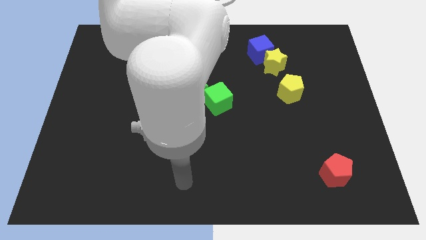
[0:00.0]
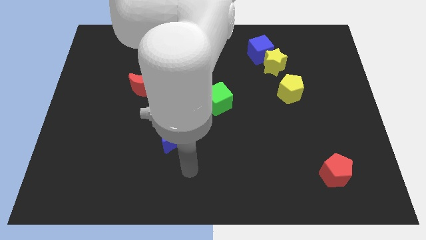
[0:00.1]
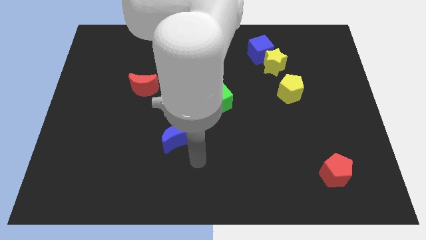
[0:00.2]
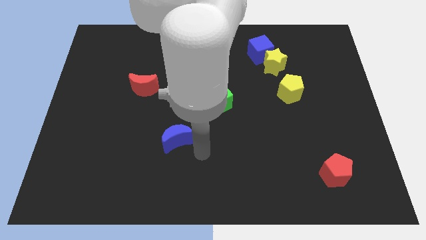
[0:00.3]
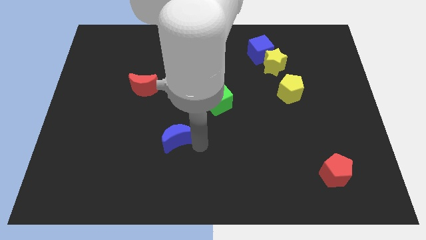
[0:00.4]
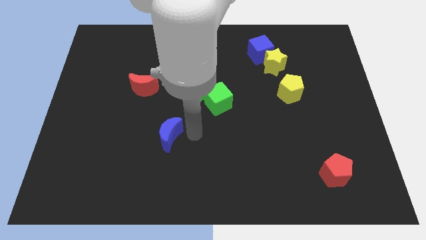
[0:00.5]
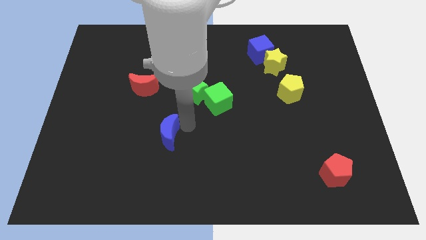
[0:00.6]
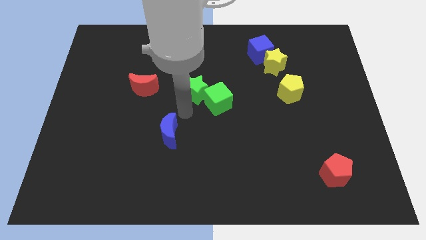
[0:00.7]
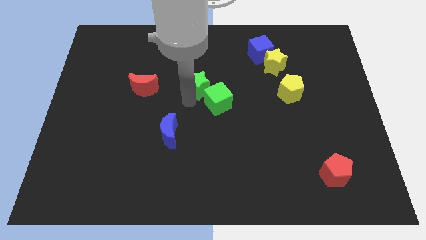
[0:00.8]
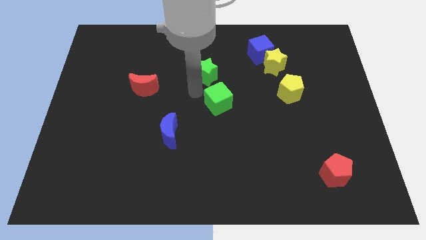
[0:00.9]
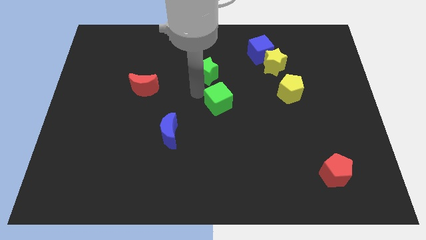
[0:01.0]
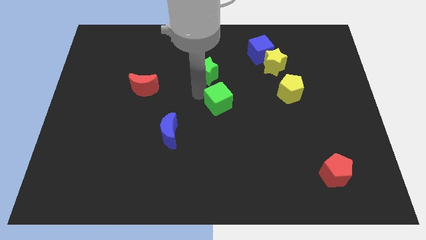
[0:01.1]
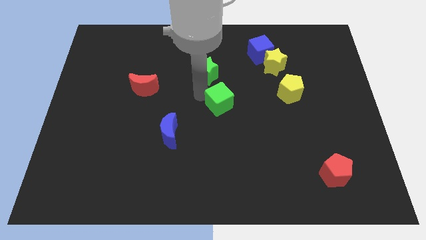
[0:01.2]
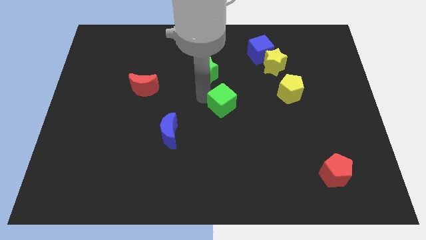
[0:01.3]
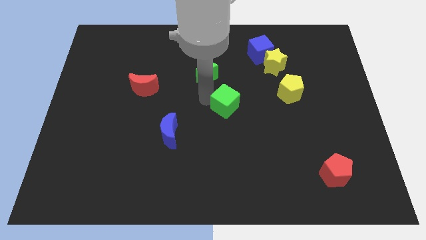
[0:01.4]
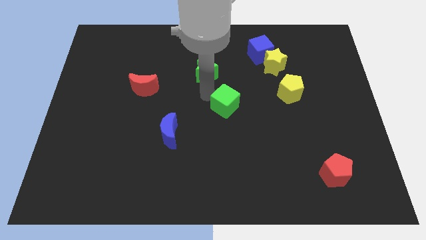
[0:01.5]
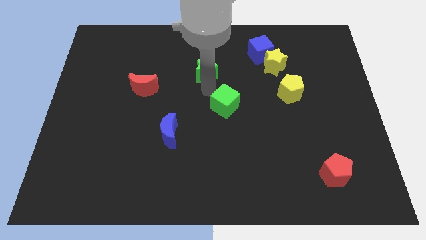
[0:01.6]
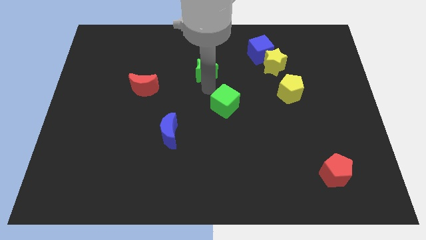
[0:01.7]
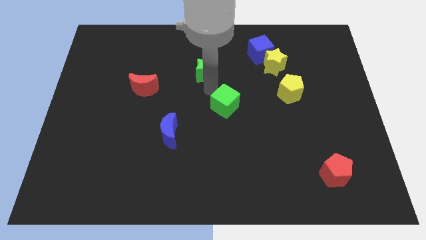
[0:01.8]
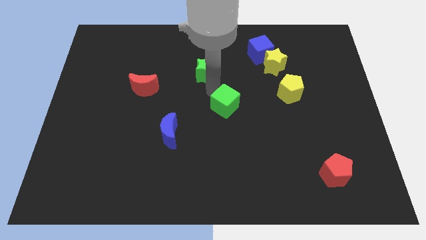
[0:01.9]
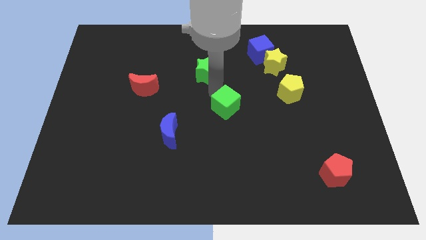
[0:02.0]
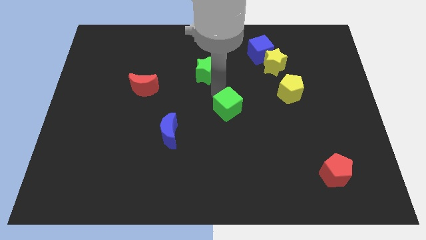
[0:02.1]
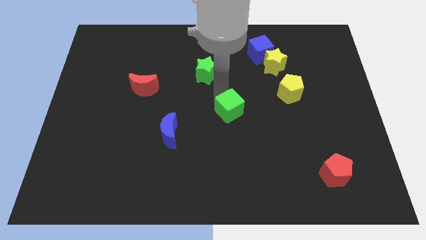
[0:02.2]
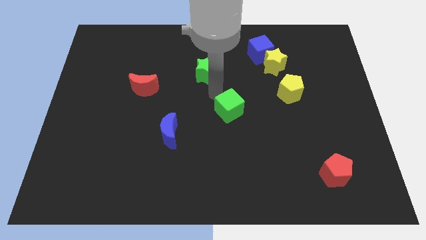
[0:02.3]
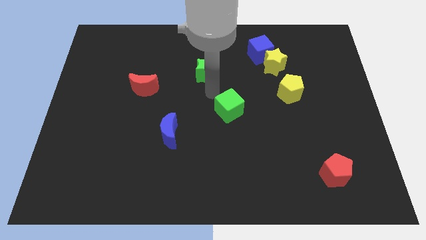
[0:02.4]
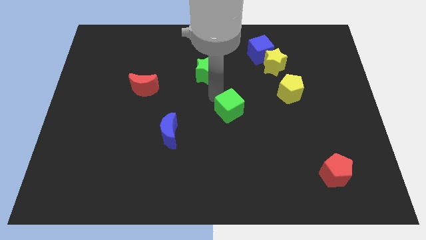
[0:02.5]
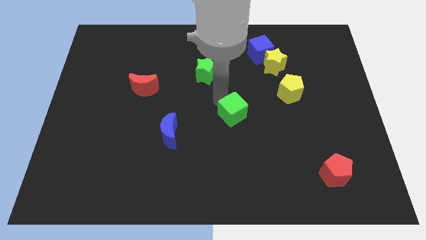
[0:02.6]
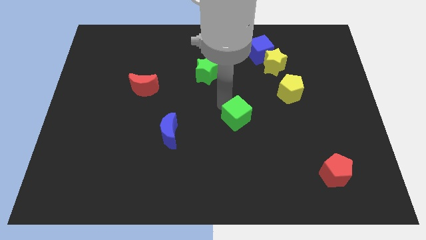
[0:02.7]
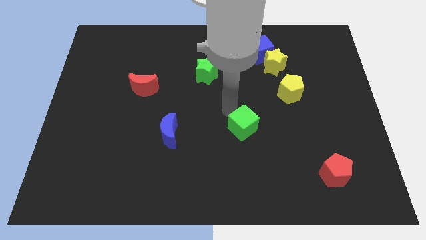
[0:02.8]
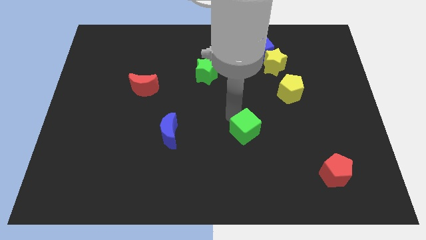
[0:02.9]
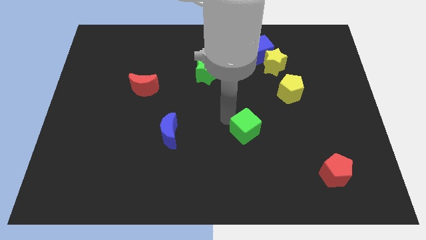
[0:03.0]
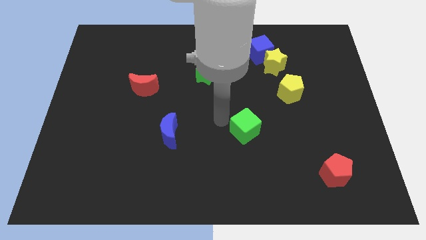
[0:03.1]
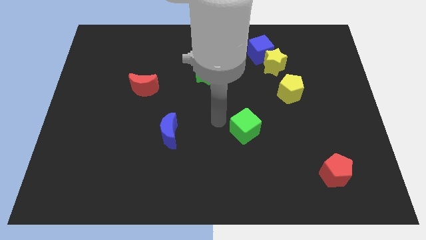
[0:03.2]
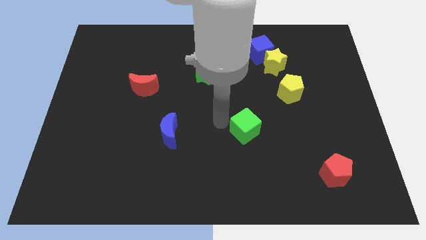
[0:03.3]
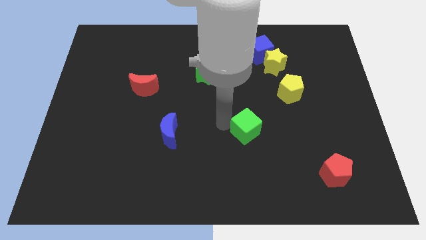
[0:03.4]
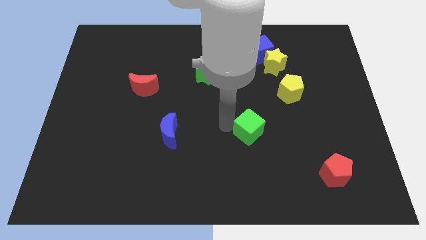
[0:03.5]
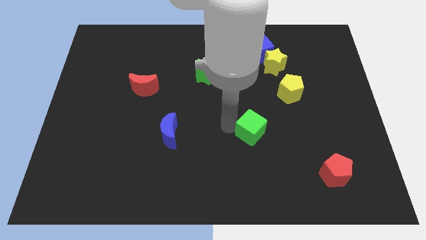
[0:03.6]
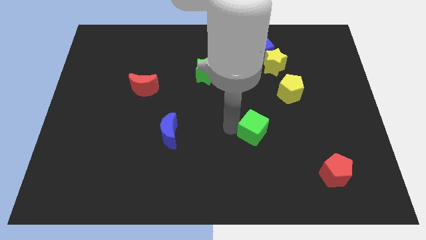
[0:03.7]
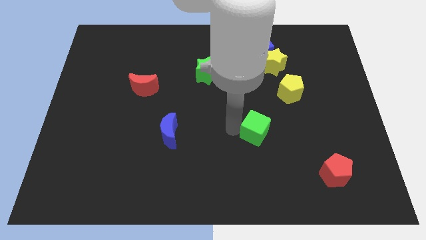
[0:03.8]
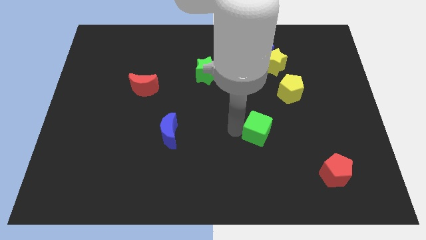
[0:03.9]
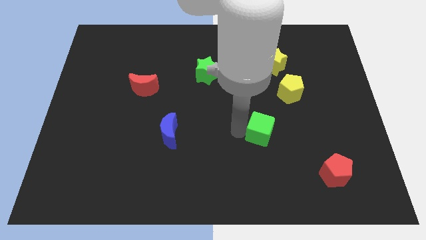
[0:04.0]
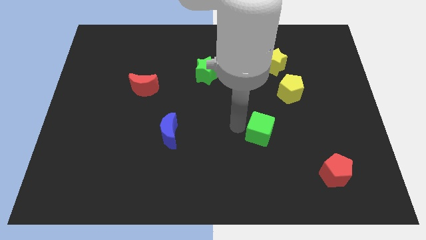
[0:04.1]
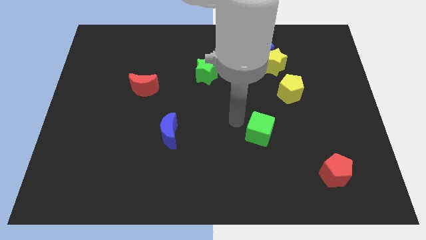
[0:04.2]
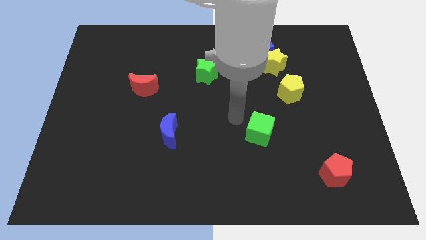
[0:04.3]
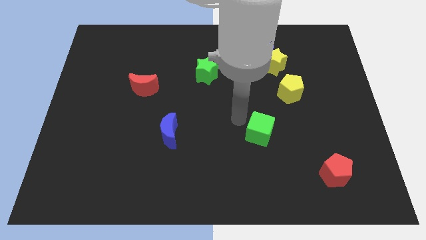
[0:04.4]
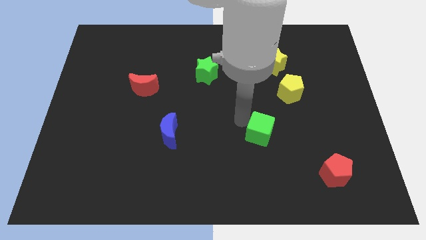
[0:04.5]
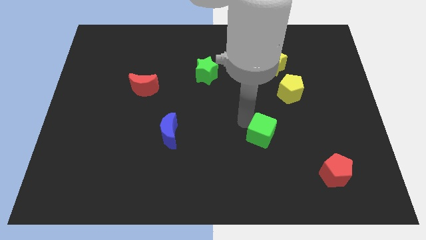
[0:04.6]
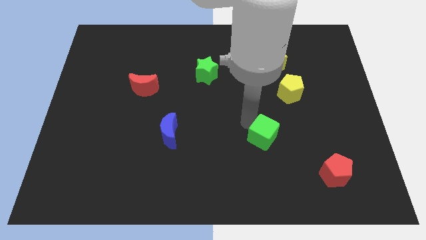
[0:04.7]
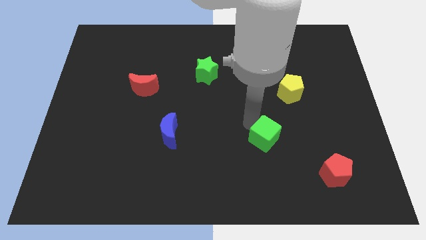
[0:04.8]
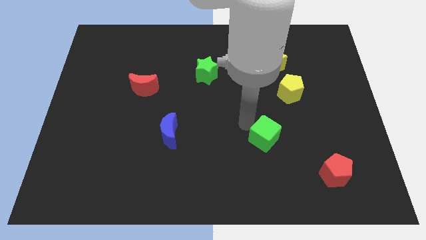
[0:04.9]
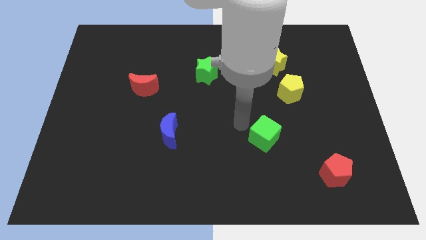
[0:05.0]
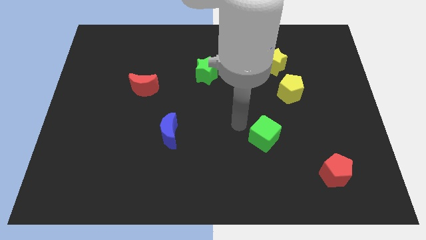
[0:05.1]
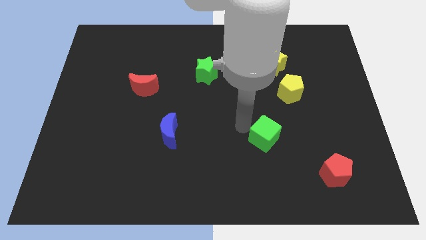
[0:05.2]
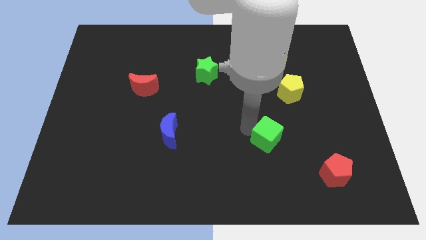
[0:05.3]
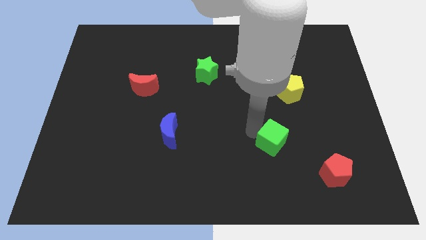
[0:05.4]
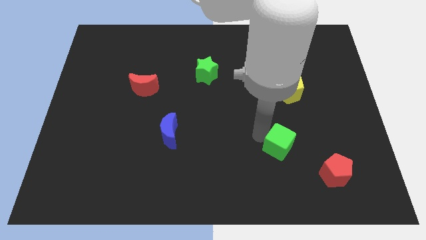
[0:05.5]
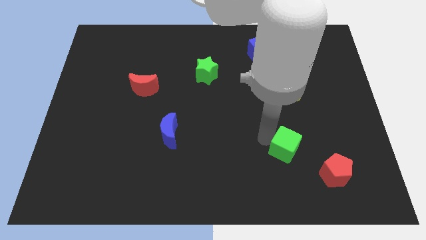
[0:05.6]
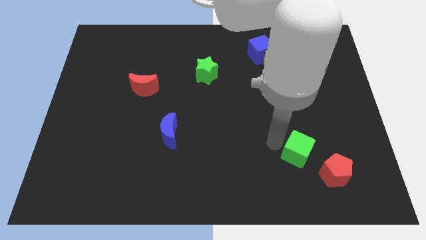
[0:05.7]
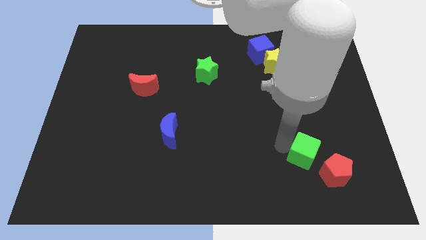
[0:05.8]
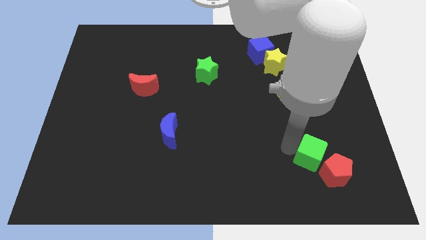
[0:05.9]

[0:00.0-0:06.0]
push the green cube next to the red pentagon

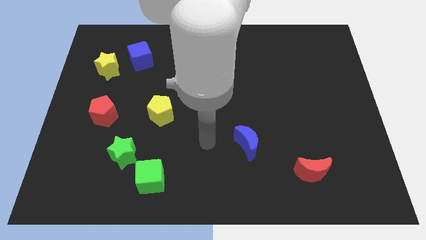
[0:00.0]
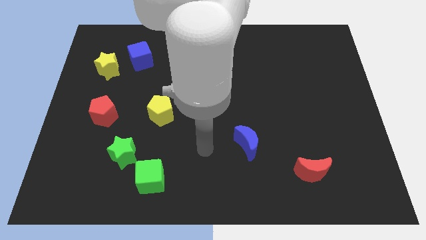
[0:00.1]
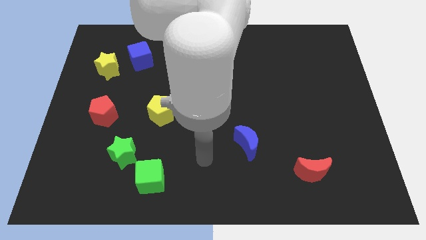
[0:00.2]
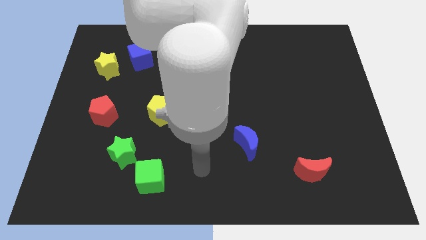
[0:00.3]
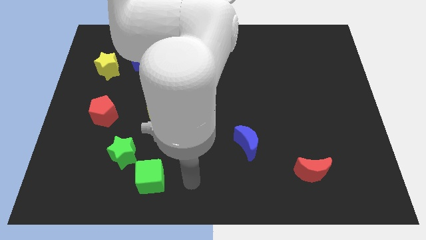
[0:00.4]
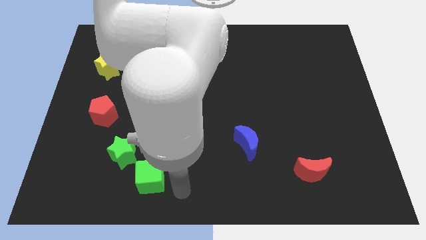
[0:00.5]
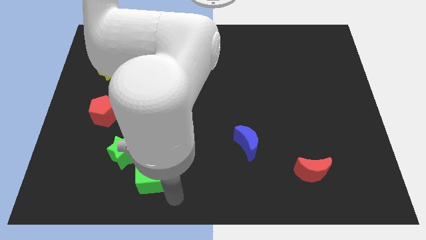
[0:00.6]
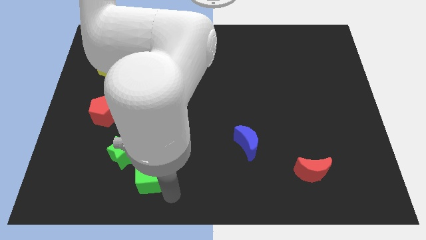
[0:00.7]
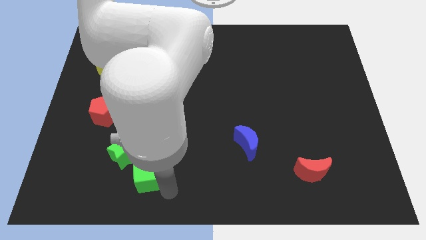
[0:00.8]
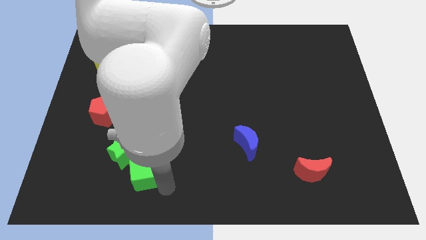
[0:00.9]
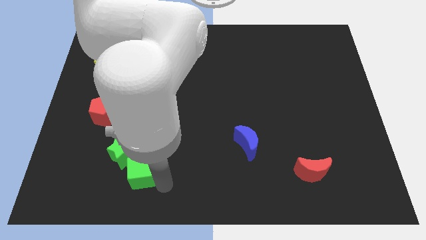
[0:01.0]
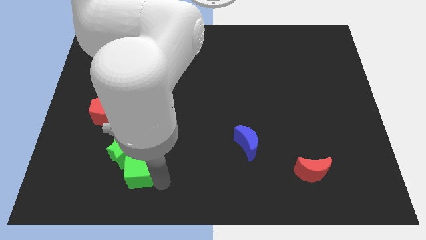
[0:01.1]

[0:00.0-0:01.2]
slide the green cube close to the green star
